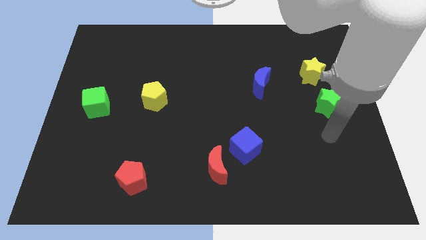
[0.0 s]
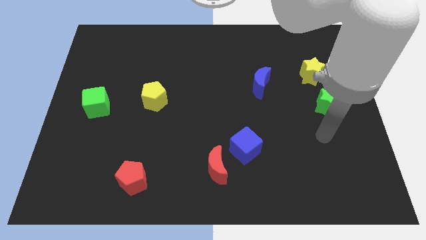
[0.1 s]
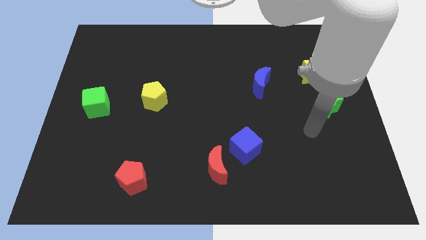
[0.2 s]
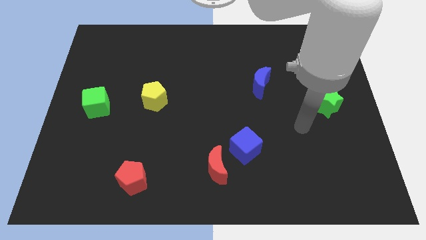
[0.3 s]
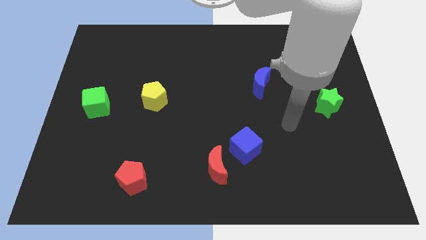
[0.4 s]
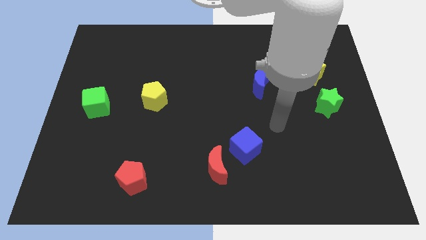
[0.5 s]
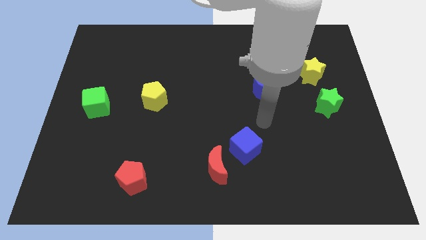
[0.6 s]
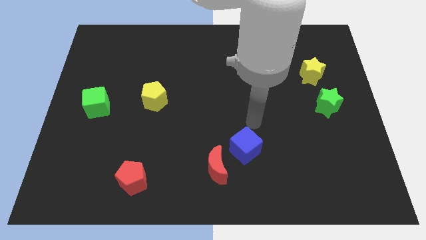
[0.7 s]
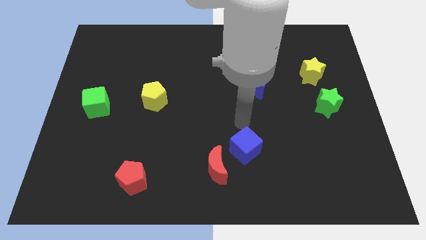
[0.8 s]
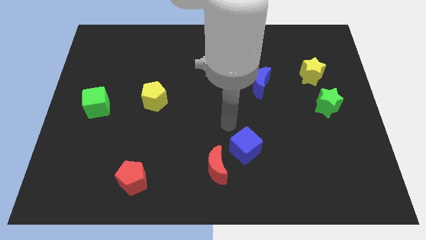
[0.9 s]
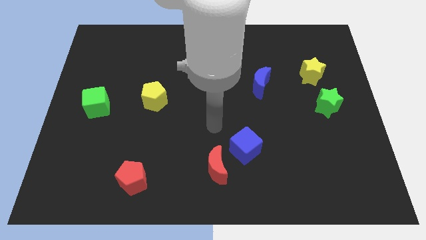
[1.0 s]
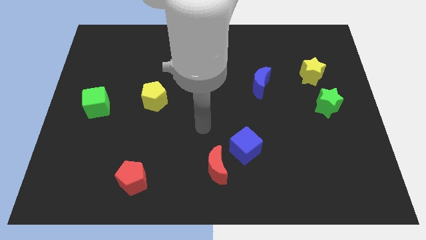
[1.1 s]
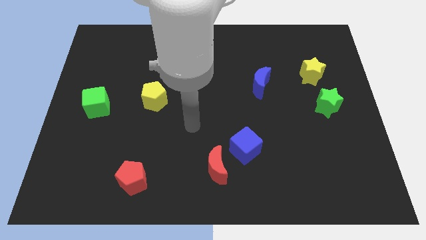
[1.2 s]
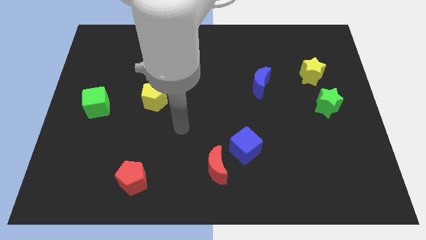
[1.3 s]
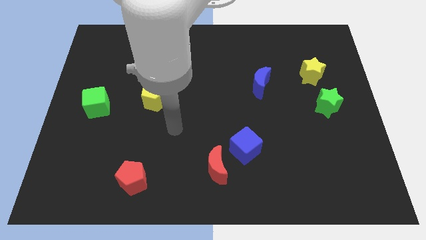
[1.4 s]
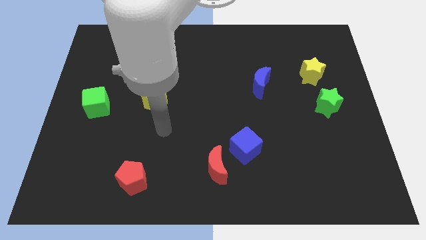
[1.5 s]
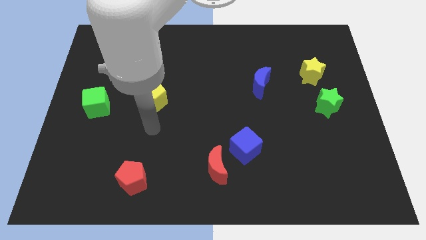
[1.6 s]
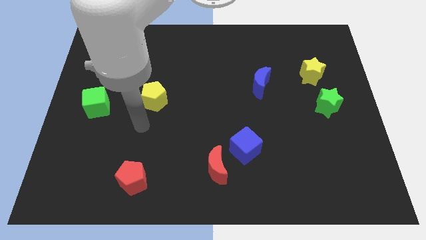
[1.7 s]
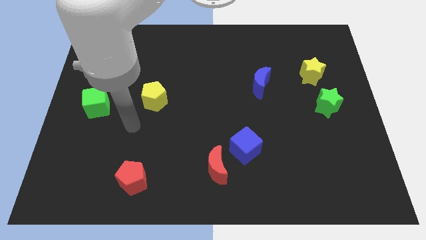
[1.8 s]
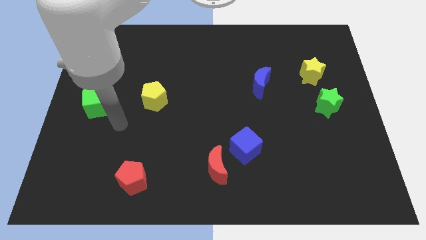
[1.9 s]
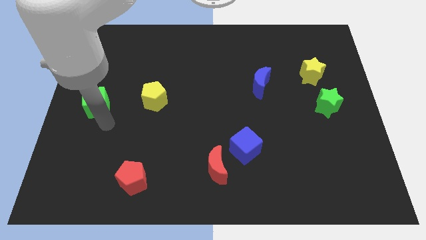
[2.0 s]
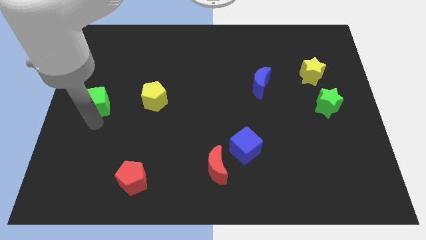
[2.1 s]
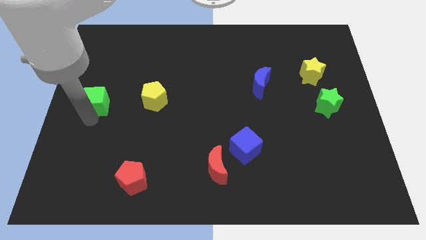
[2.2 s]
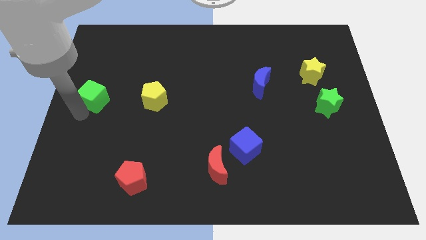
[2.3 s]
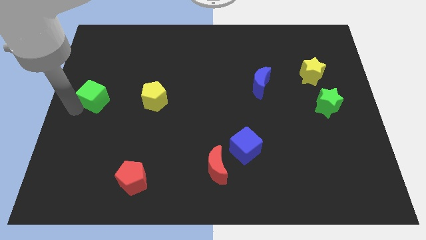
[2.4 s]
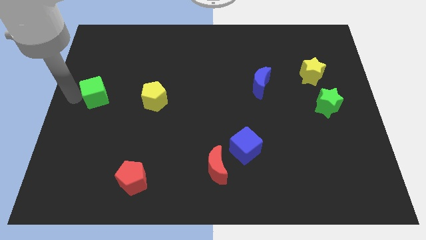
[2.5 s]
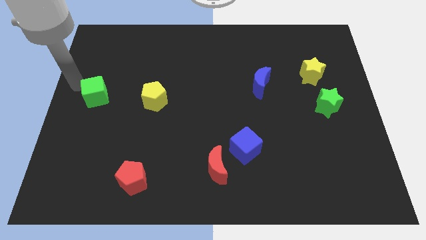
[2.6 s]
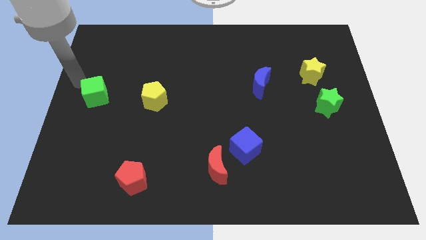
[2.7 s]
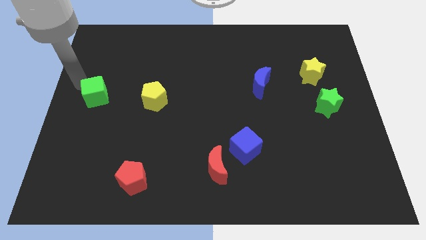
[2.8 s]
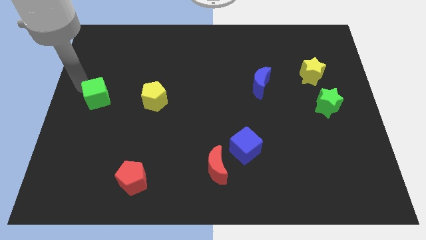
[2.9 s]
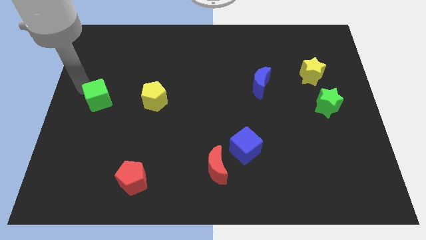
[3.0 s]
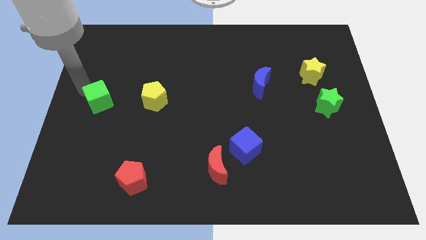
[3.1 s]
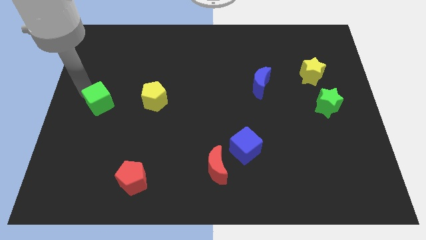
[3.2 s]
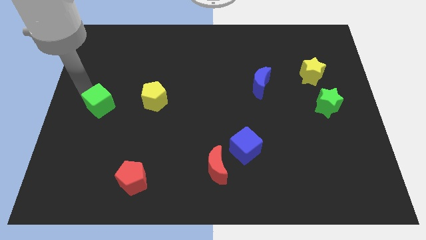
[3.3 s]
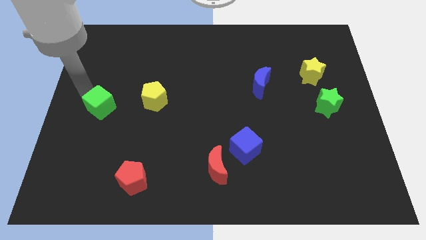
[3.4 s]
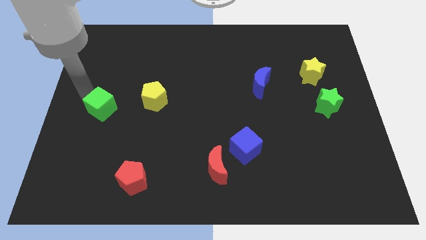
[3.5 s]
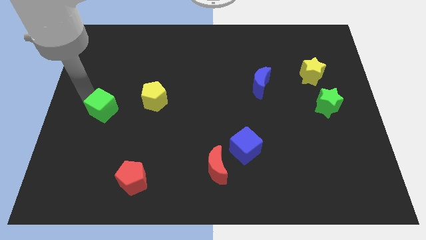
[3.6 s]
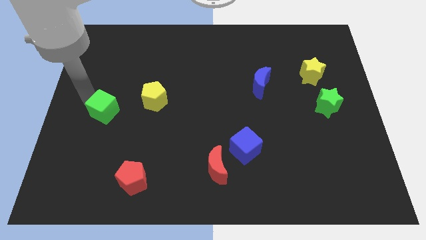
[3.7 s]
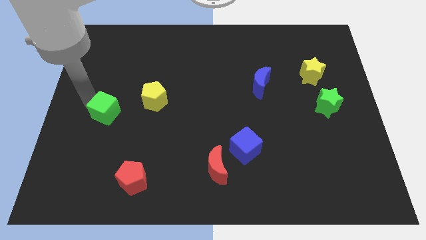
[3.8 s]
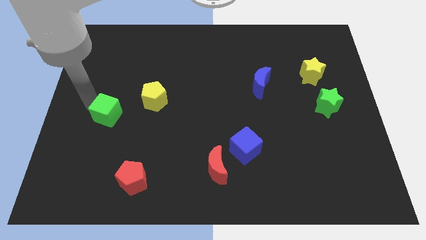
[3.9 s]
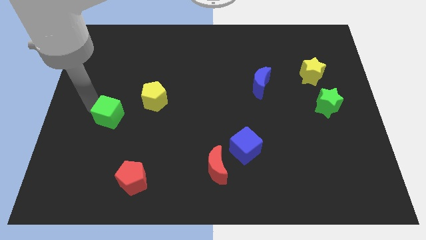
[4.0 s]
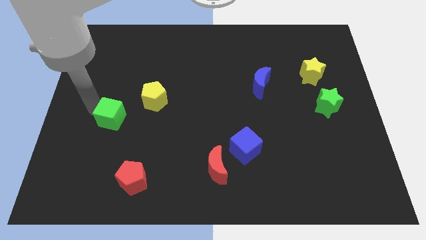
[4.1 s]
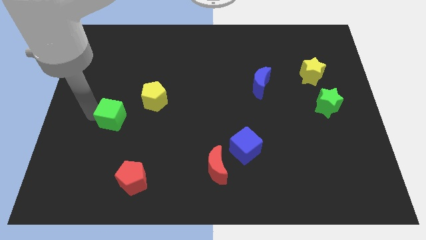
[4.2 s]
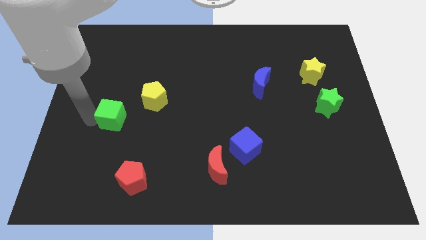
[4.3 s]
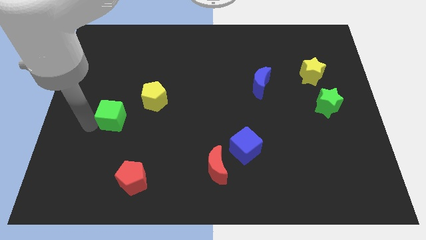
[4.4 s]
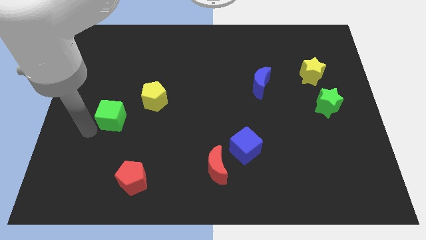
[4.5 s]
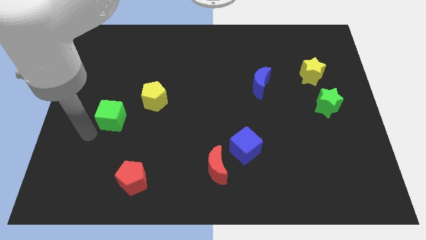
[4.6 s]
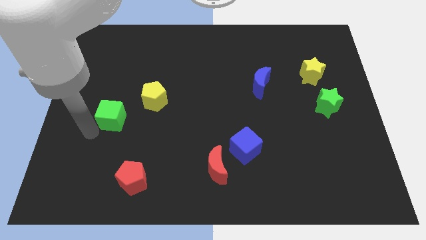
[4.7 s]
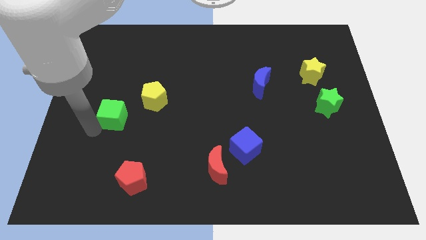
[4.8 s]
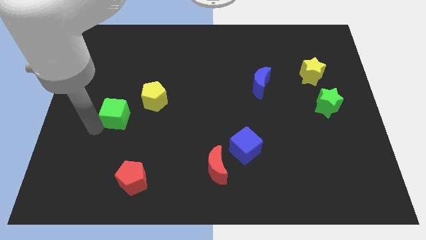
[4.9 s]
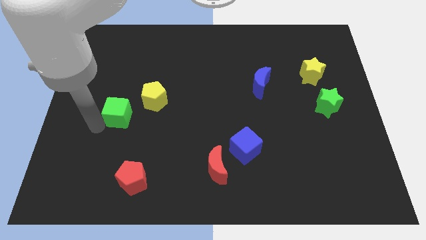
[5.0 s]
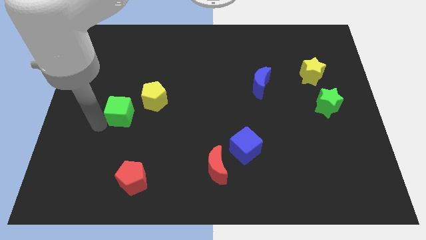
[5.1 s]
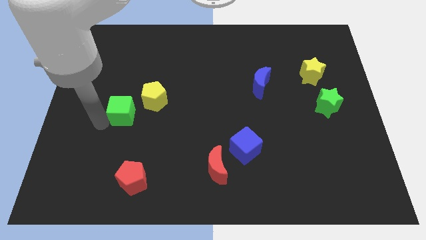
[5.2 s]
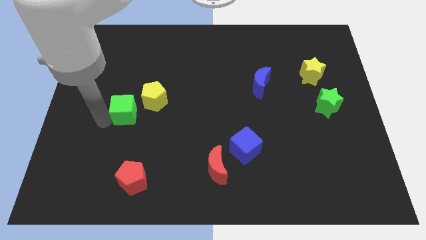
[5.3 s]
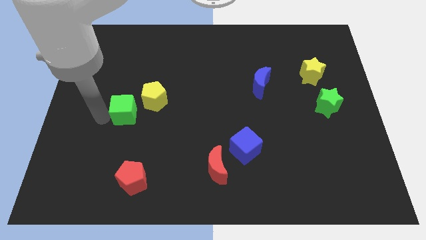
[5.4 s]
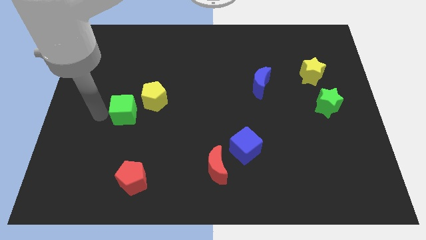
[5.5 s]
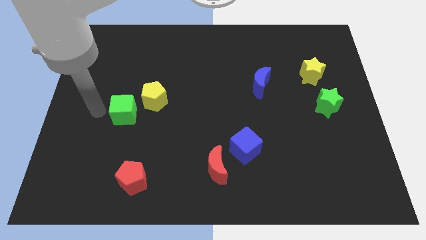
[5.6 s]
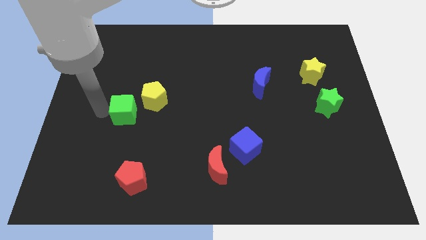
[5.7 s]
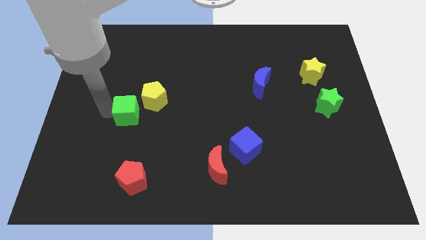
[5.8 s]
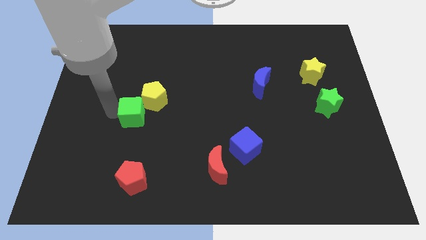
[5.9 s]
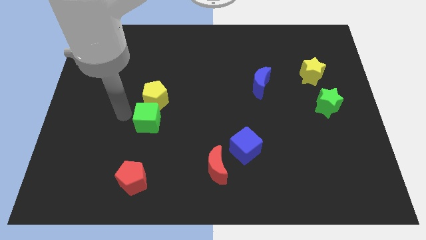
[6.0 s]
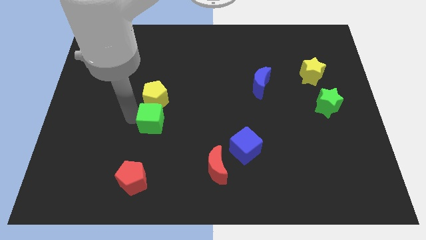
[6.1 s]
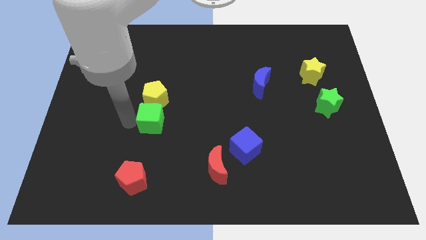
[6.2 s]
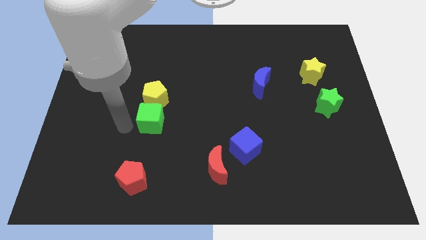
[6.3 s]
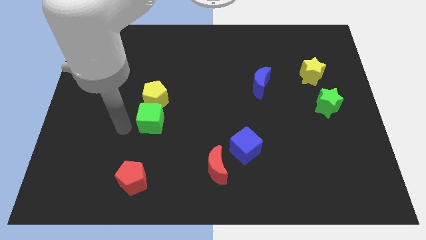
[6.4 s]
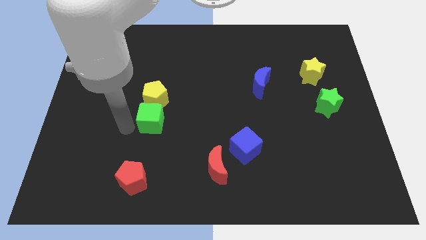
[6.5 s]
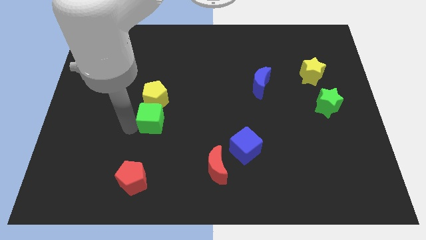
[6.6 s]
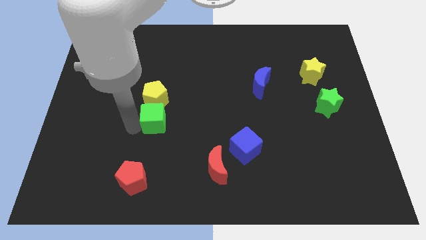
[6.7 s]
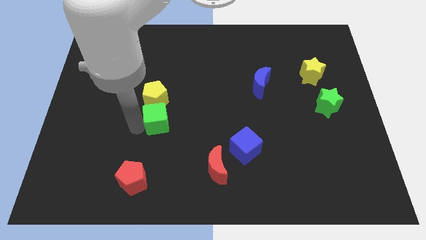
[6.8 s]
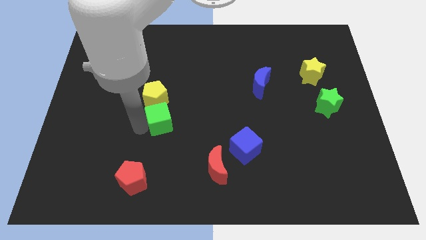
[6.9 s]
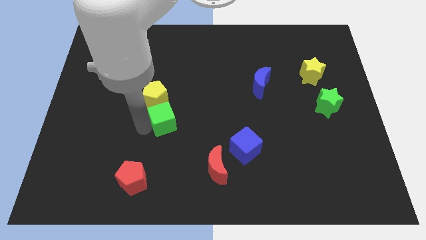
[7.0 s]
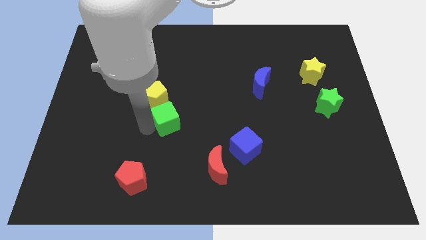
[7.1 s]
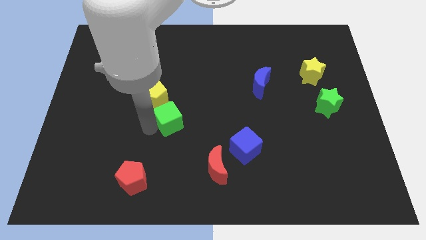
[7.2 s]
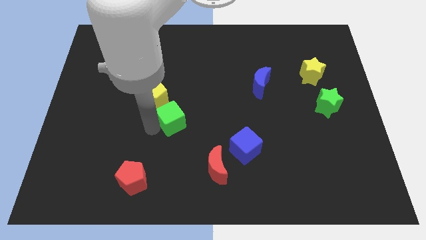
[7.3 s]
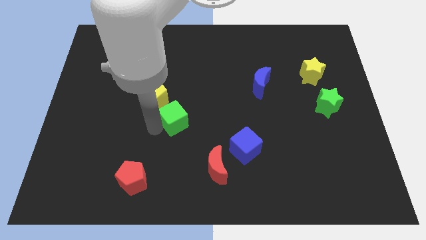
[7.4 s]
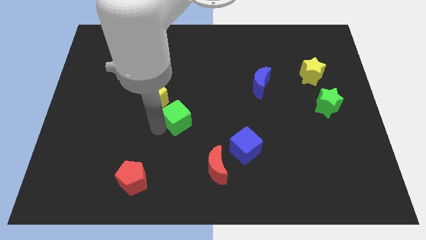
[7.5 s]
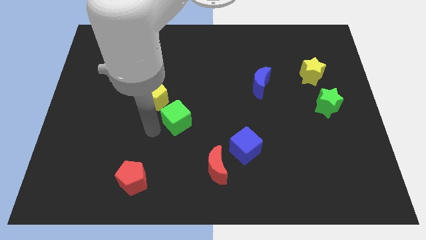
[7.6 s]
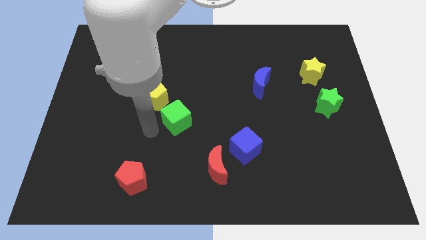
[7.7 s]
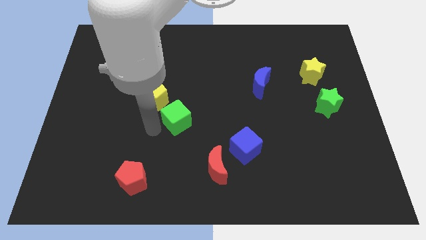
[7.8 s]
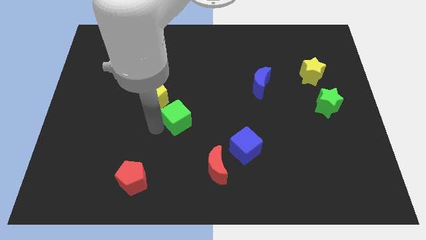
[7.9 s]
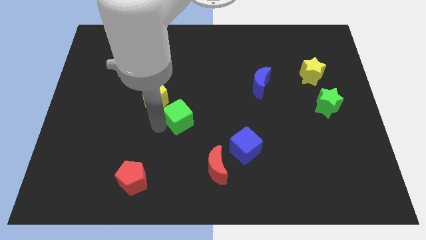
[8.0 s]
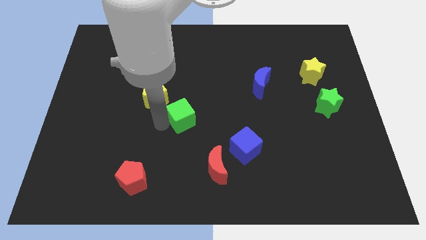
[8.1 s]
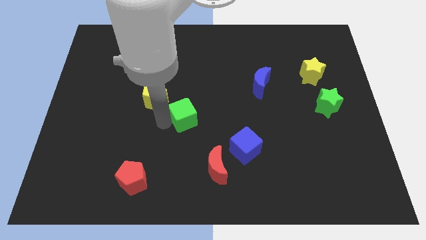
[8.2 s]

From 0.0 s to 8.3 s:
slide the green cube to the right
